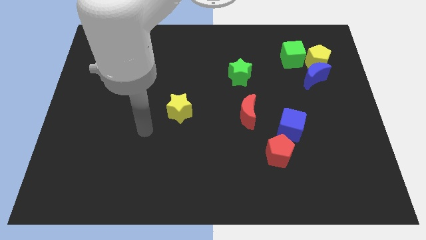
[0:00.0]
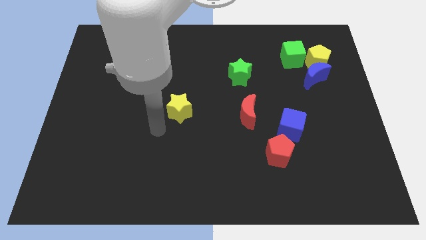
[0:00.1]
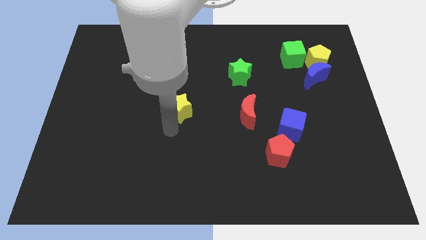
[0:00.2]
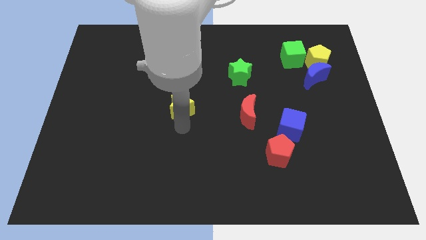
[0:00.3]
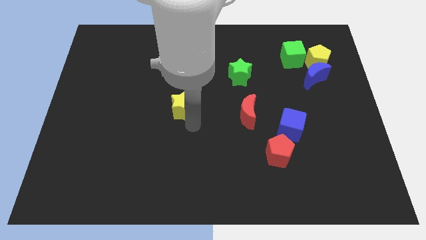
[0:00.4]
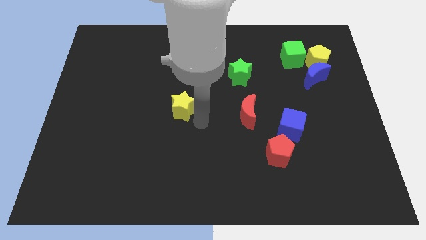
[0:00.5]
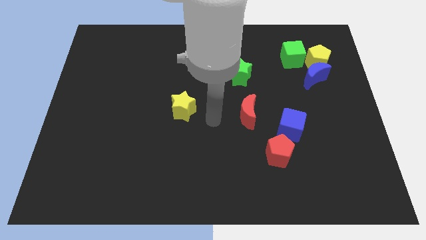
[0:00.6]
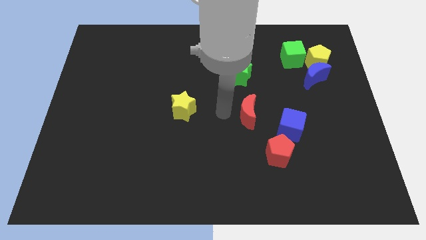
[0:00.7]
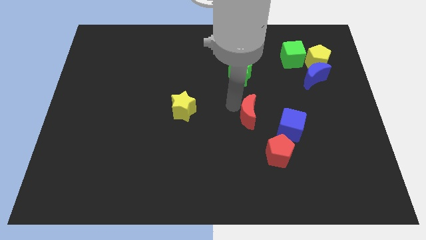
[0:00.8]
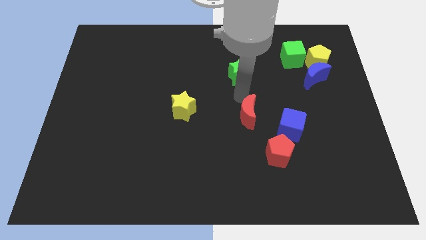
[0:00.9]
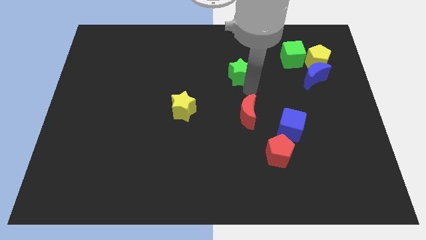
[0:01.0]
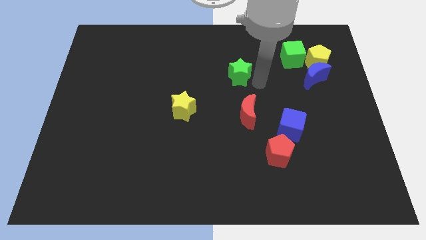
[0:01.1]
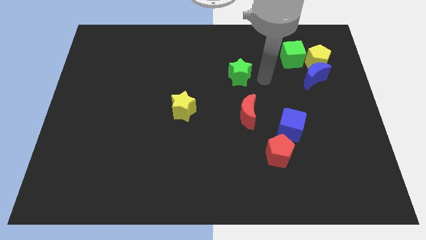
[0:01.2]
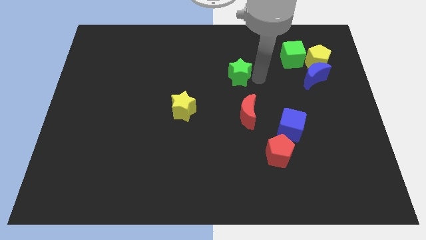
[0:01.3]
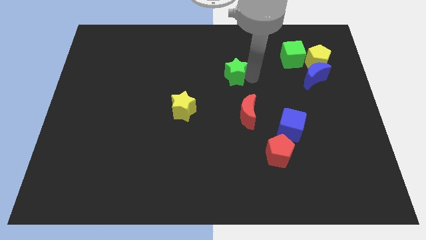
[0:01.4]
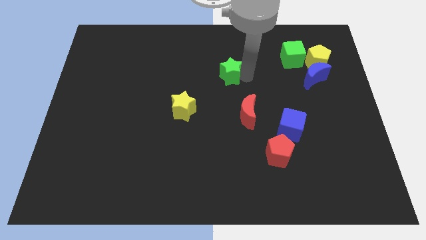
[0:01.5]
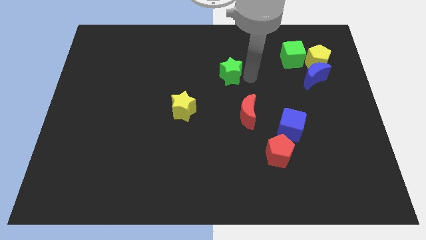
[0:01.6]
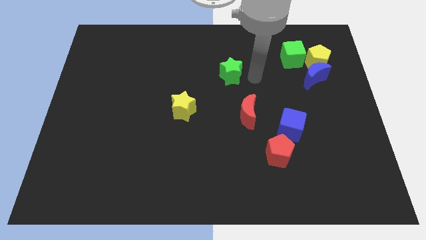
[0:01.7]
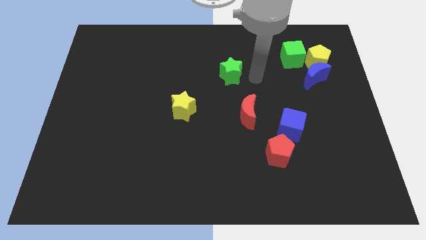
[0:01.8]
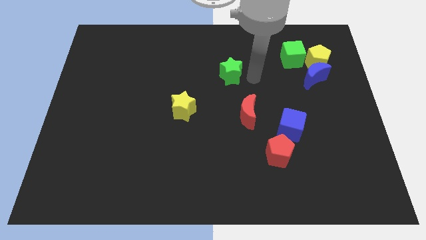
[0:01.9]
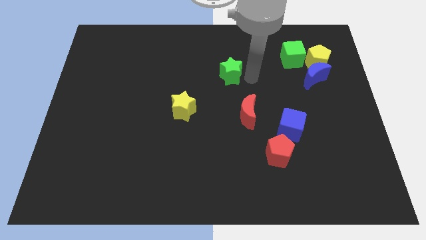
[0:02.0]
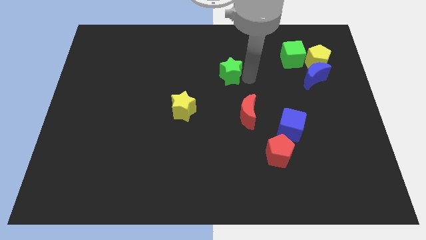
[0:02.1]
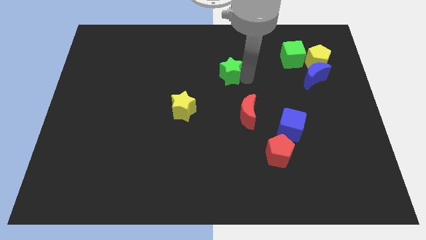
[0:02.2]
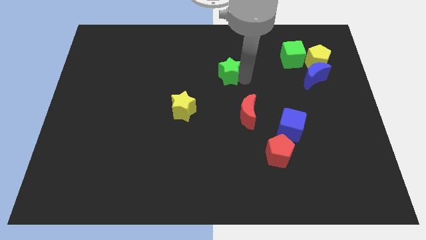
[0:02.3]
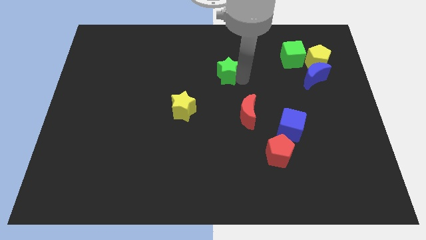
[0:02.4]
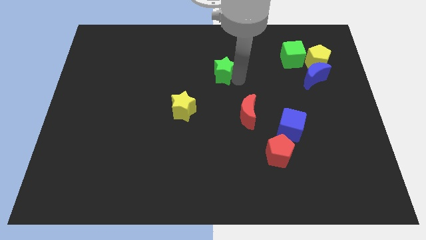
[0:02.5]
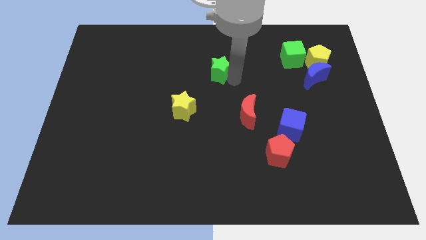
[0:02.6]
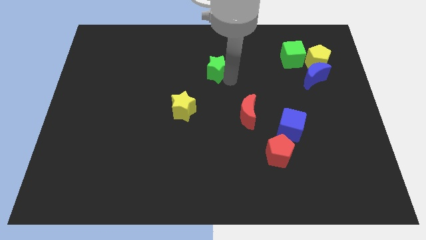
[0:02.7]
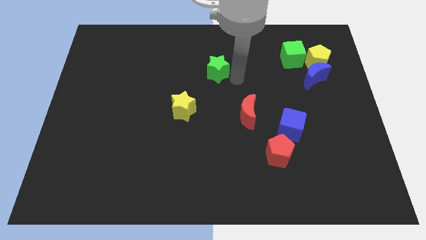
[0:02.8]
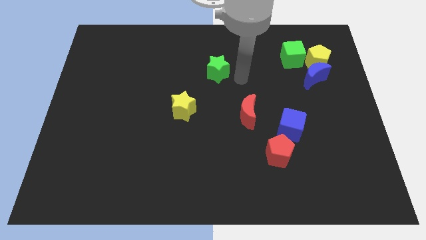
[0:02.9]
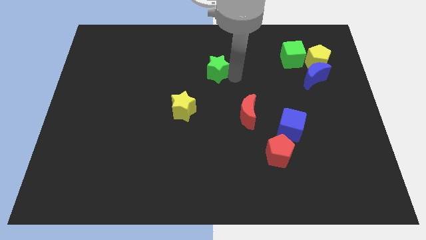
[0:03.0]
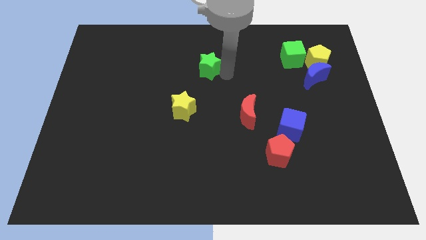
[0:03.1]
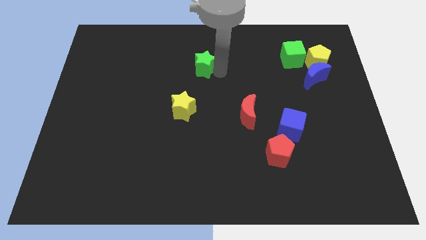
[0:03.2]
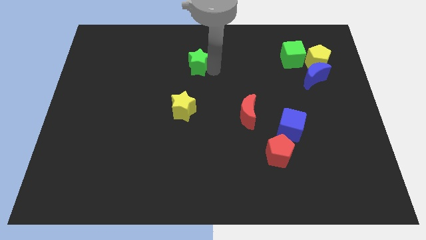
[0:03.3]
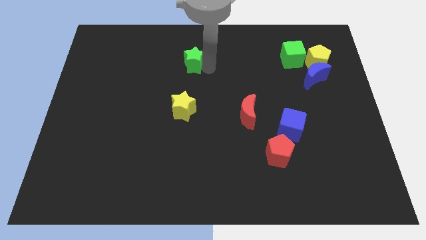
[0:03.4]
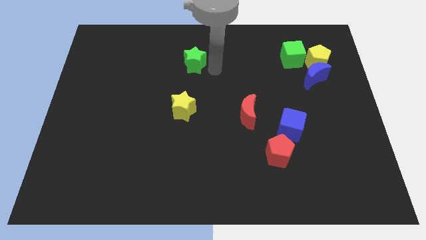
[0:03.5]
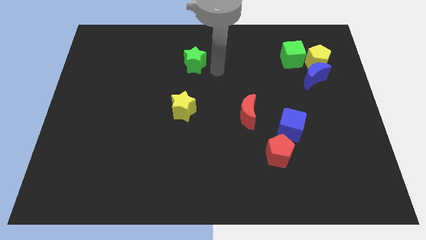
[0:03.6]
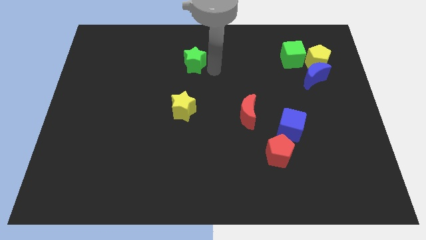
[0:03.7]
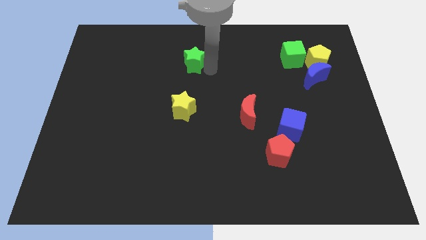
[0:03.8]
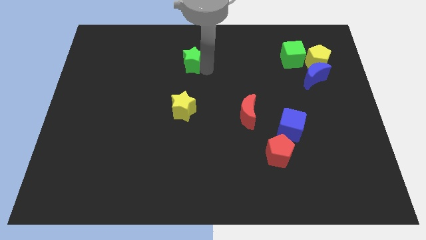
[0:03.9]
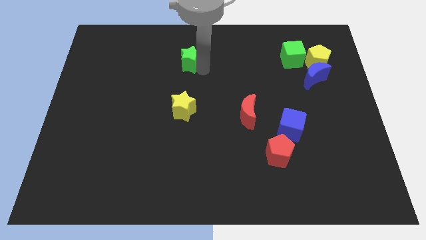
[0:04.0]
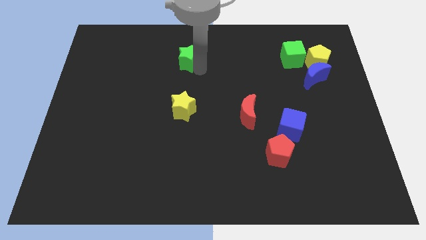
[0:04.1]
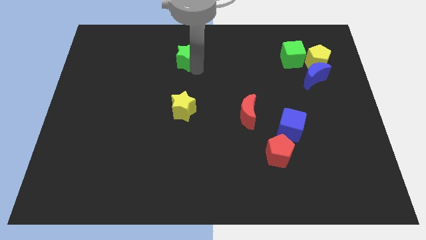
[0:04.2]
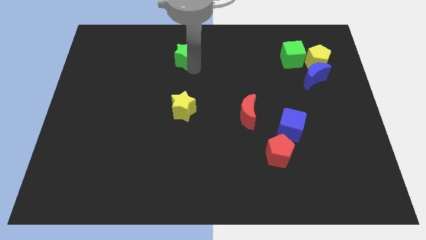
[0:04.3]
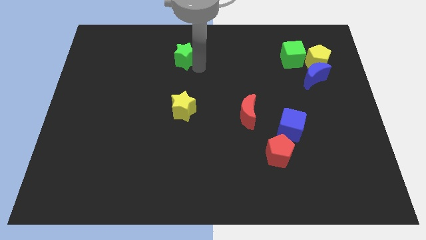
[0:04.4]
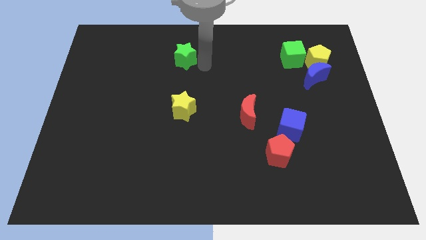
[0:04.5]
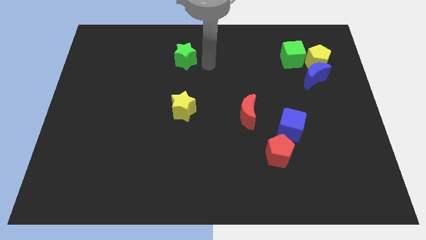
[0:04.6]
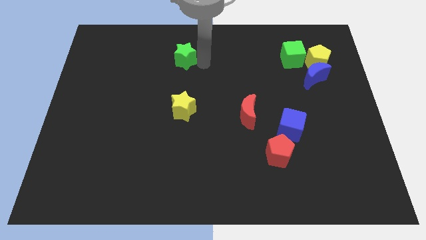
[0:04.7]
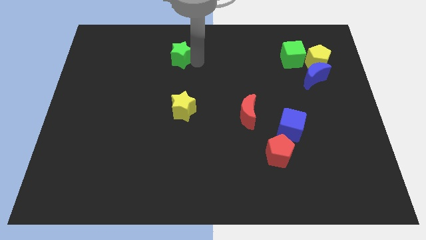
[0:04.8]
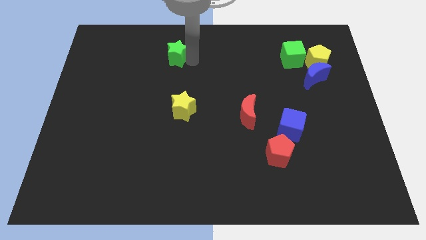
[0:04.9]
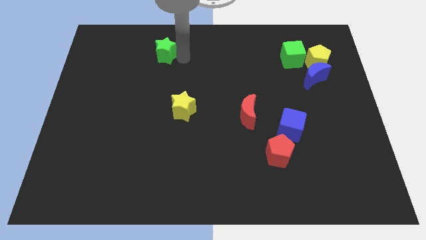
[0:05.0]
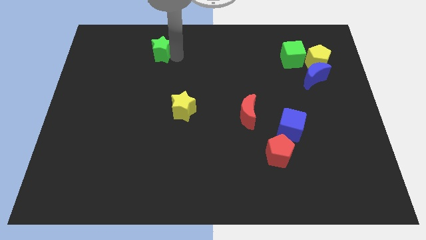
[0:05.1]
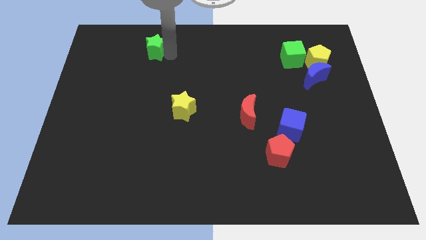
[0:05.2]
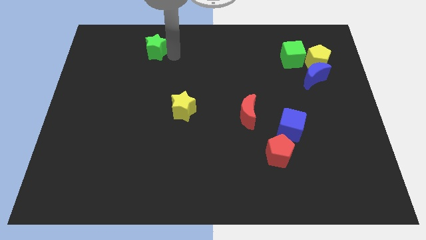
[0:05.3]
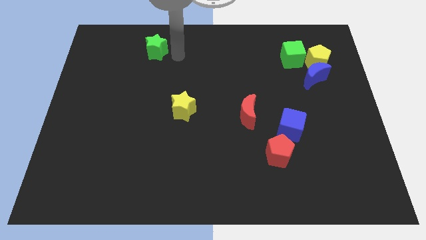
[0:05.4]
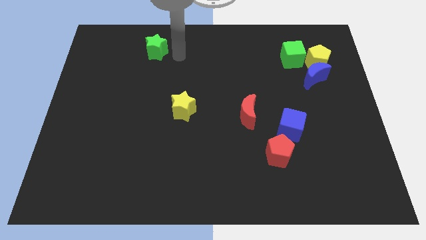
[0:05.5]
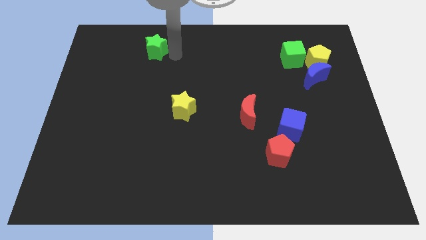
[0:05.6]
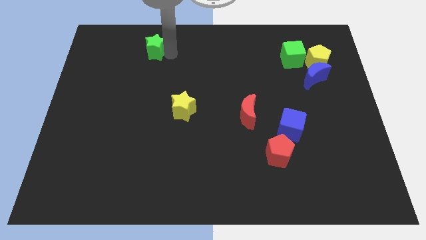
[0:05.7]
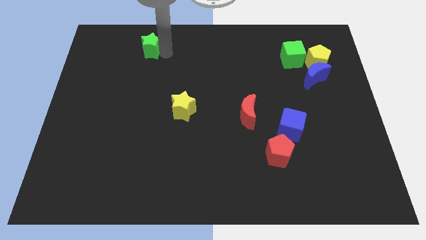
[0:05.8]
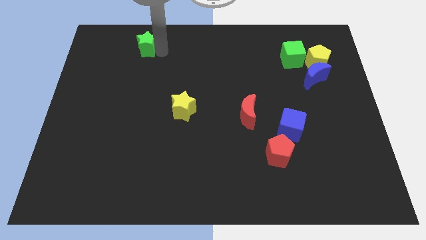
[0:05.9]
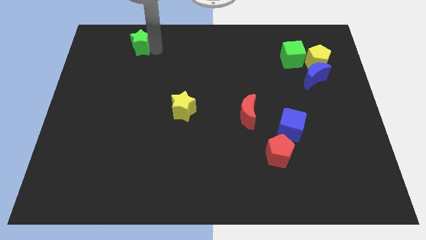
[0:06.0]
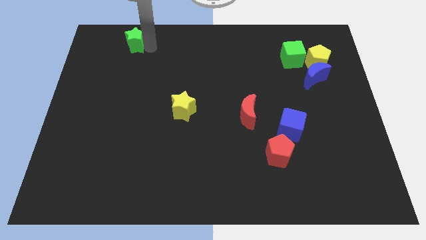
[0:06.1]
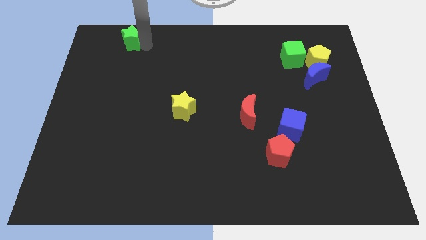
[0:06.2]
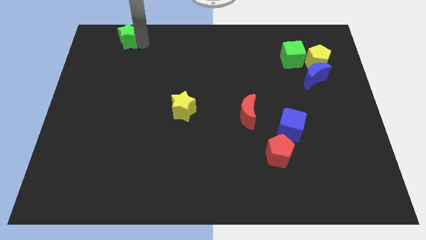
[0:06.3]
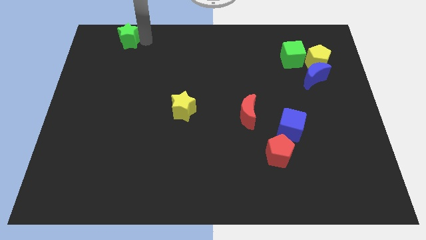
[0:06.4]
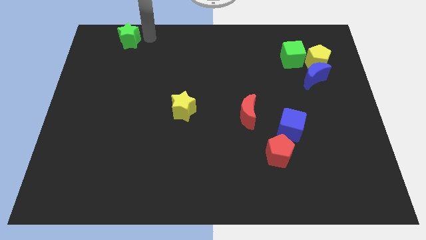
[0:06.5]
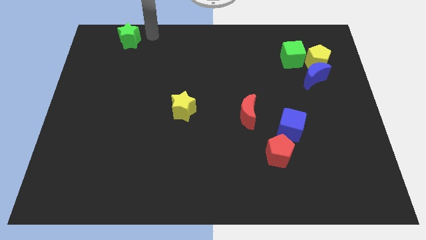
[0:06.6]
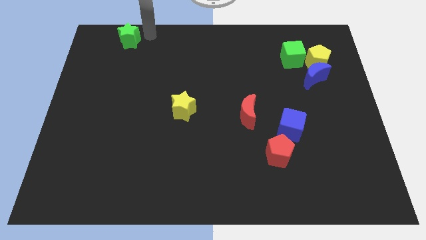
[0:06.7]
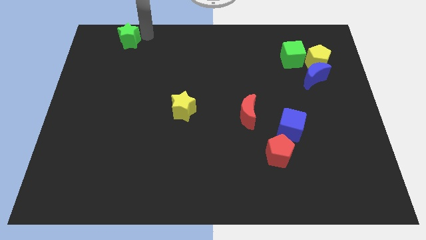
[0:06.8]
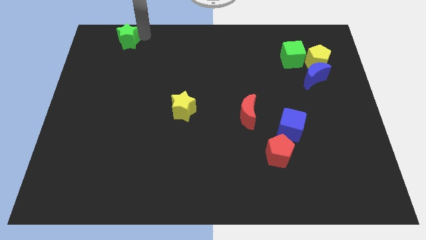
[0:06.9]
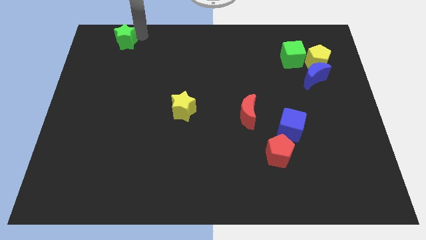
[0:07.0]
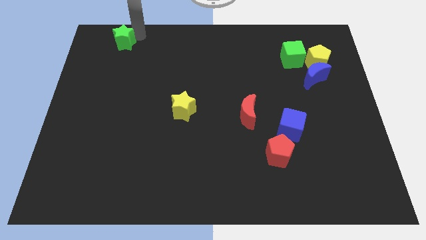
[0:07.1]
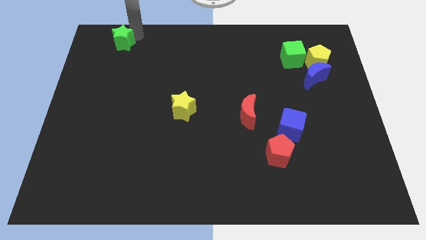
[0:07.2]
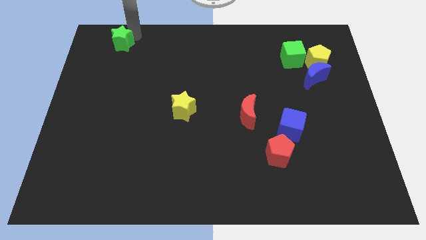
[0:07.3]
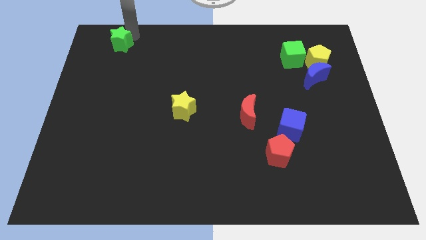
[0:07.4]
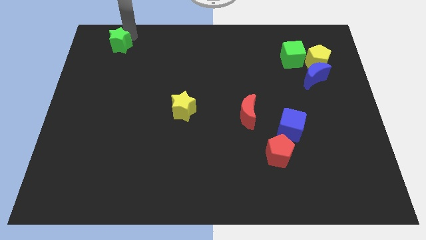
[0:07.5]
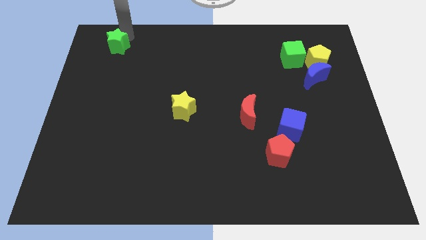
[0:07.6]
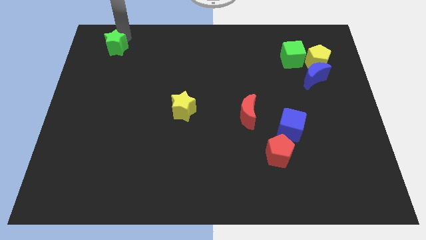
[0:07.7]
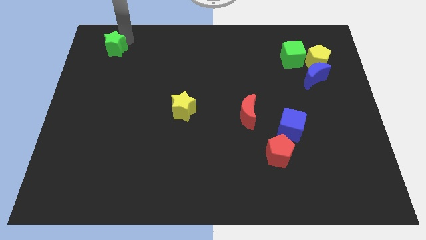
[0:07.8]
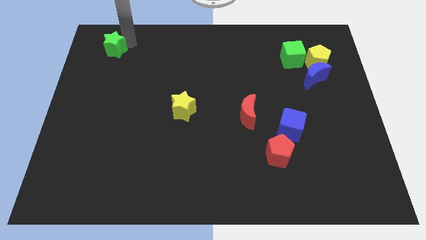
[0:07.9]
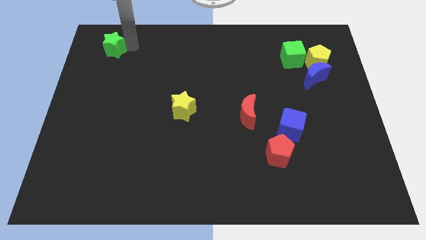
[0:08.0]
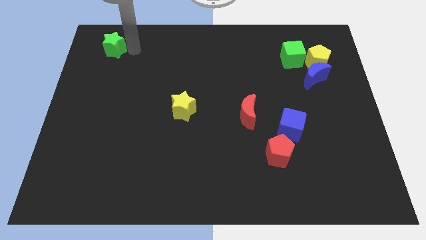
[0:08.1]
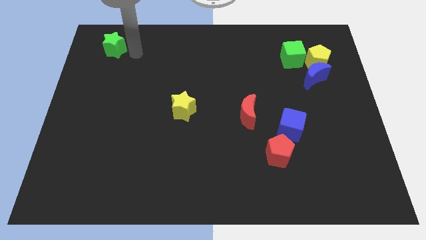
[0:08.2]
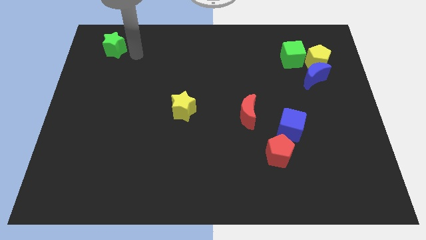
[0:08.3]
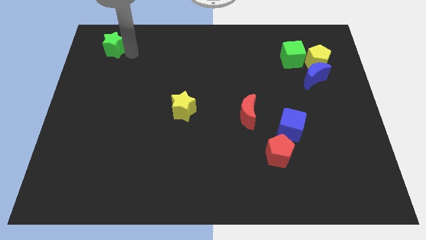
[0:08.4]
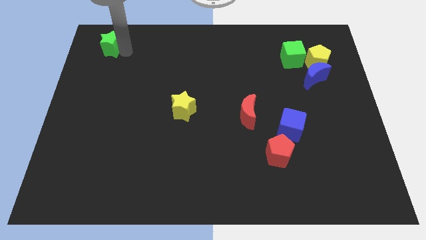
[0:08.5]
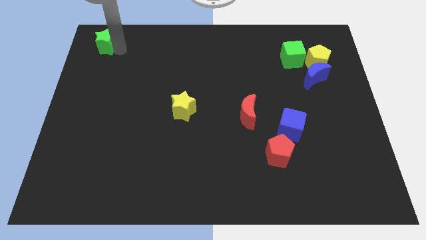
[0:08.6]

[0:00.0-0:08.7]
slide the green star to the upper left corner
